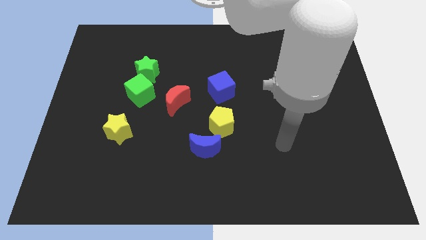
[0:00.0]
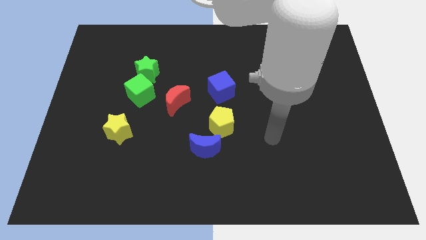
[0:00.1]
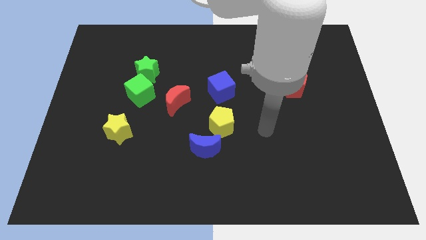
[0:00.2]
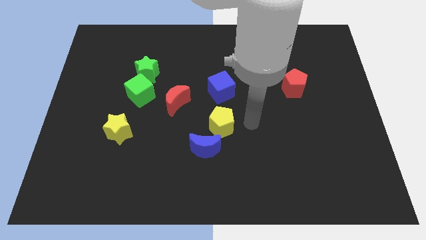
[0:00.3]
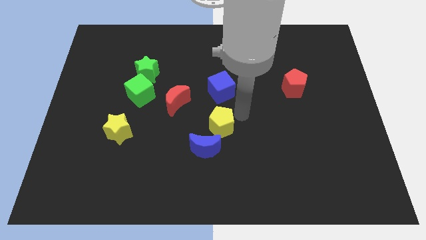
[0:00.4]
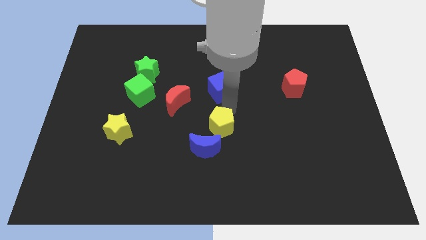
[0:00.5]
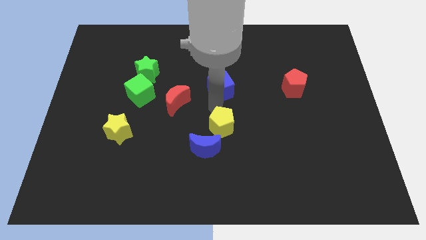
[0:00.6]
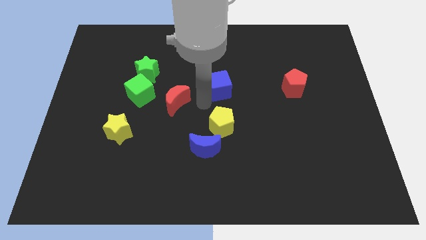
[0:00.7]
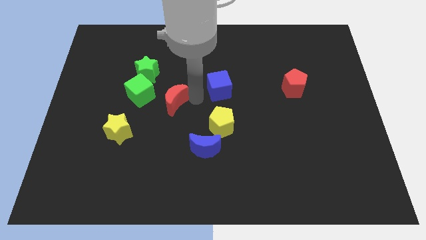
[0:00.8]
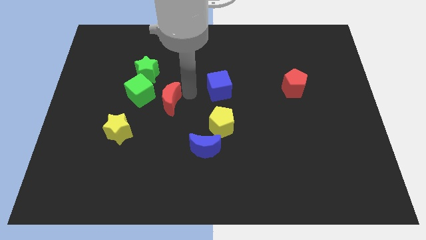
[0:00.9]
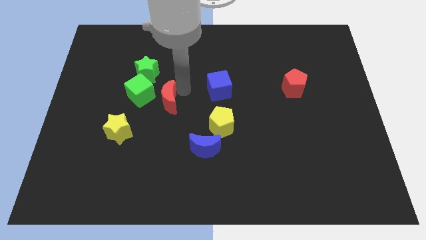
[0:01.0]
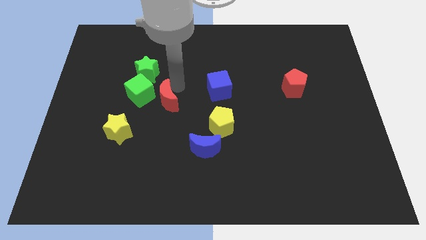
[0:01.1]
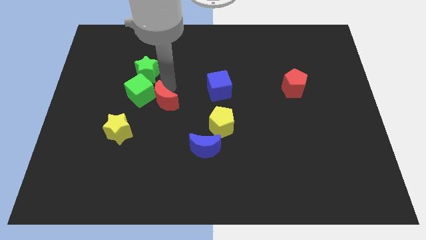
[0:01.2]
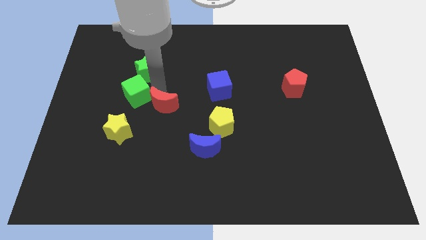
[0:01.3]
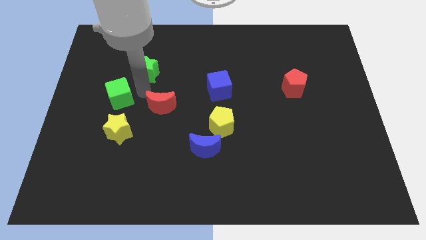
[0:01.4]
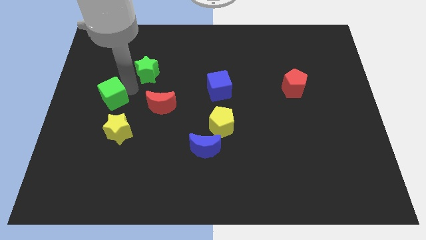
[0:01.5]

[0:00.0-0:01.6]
move the green star away from the green cube

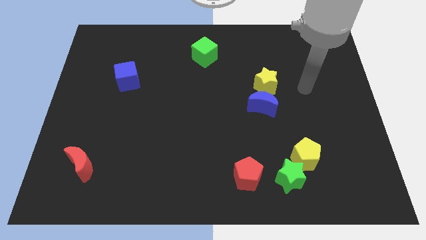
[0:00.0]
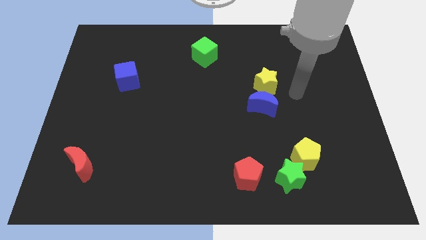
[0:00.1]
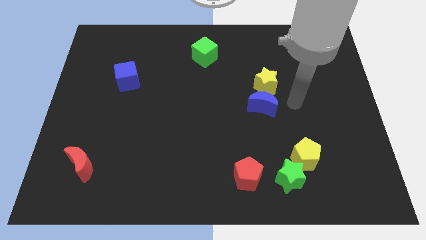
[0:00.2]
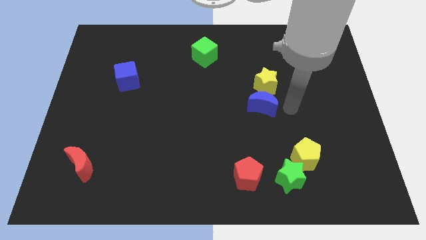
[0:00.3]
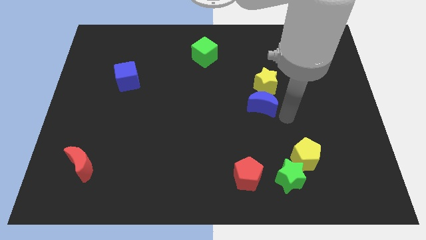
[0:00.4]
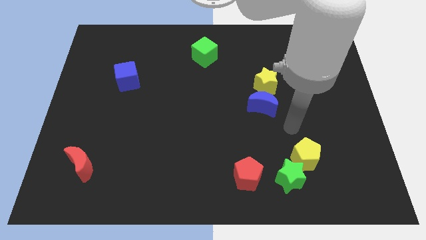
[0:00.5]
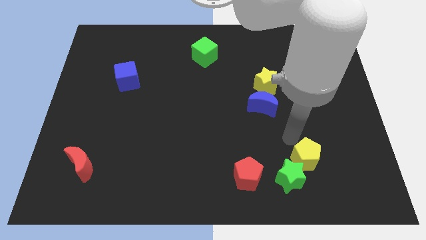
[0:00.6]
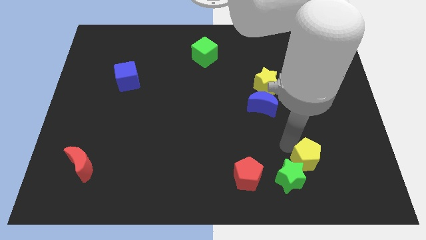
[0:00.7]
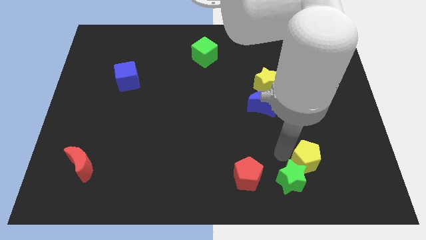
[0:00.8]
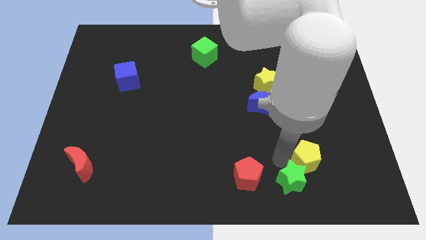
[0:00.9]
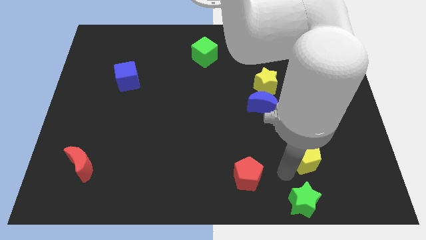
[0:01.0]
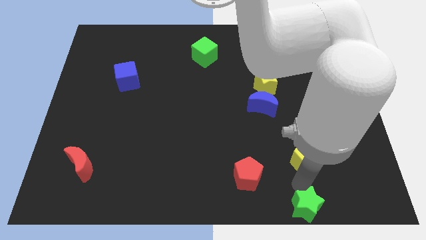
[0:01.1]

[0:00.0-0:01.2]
move the yellow pentagon away from the green star

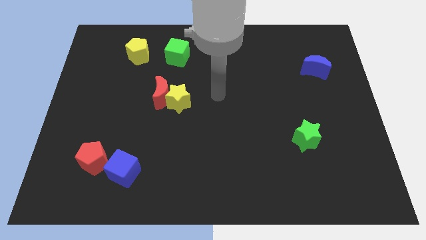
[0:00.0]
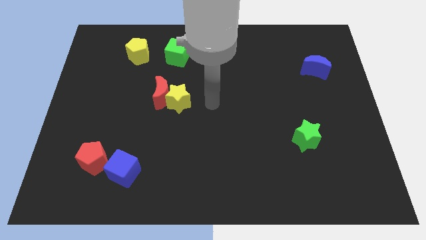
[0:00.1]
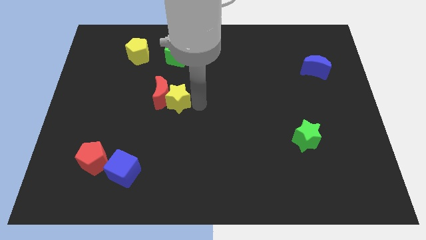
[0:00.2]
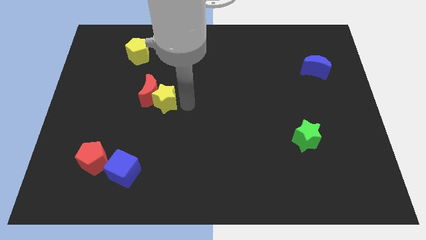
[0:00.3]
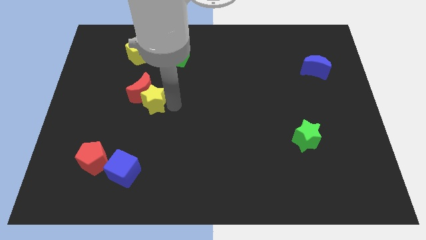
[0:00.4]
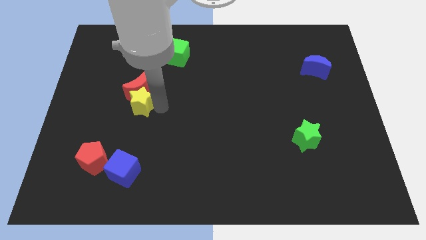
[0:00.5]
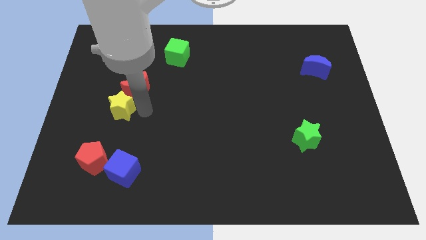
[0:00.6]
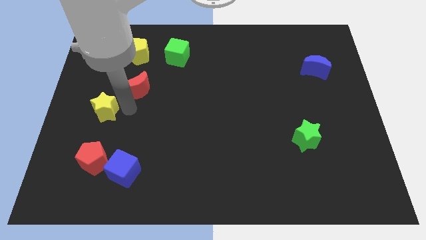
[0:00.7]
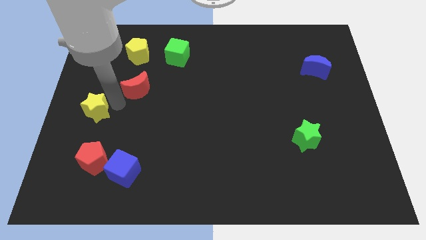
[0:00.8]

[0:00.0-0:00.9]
separate the red moon from the yellow star

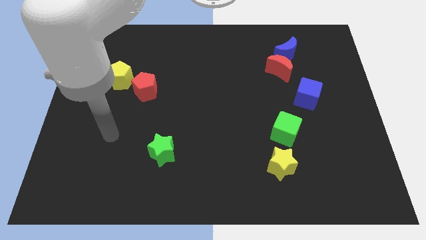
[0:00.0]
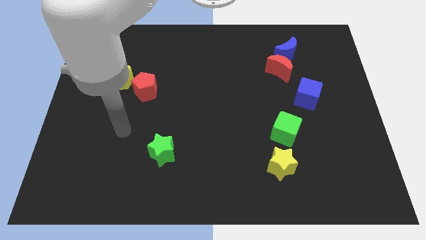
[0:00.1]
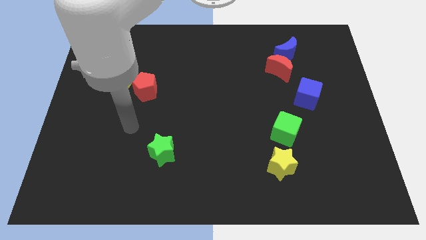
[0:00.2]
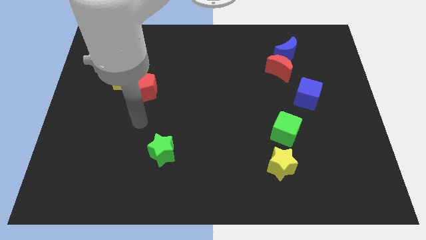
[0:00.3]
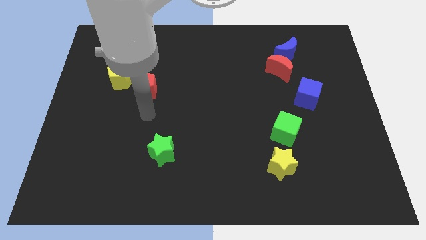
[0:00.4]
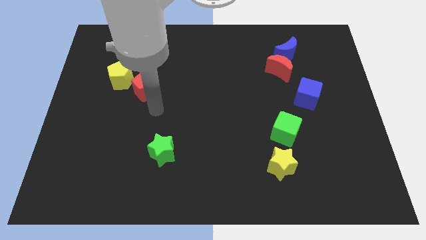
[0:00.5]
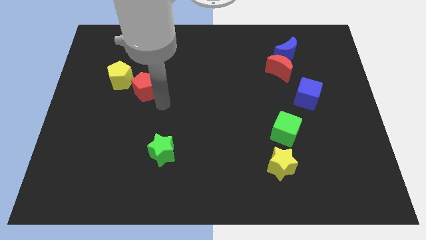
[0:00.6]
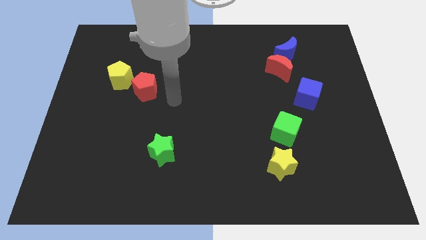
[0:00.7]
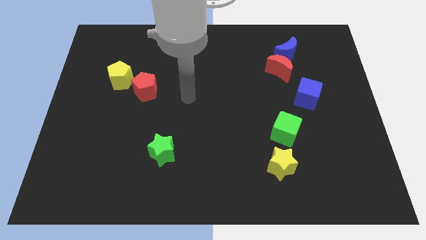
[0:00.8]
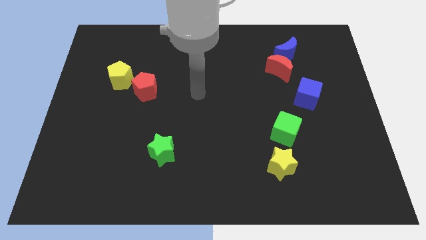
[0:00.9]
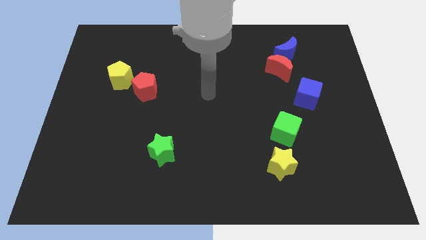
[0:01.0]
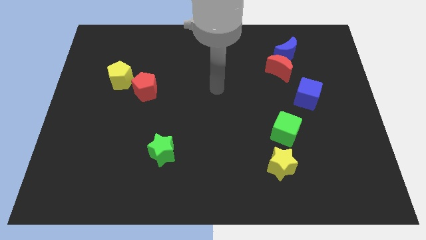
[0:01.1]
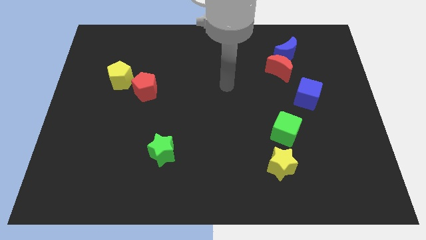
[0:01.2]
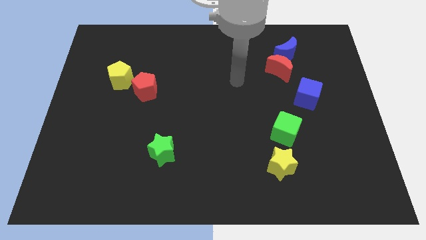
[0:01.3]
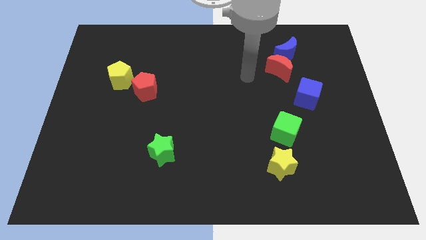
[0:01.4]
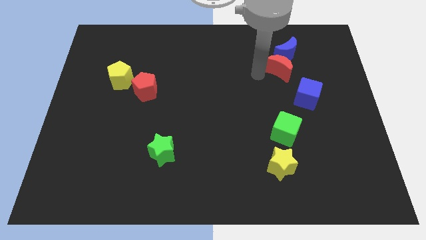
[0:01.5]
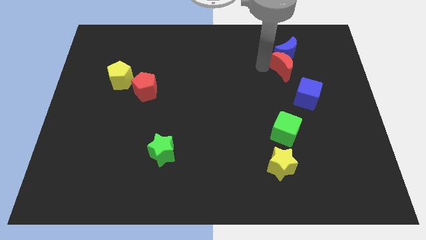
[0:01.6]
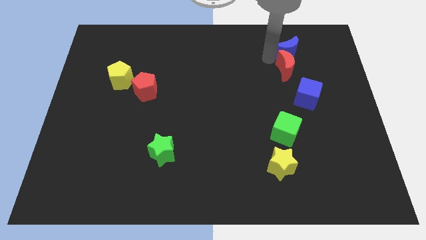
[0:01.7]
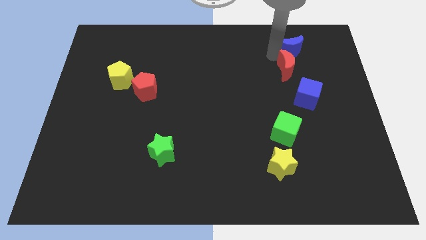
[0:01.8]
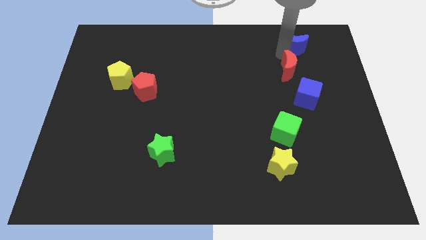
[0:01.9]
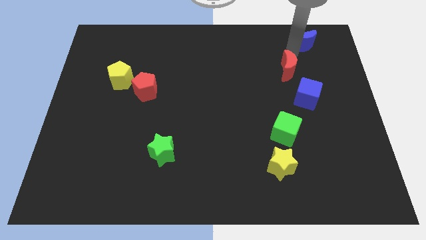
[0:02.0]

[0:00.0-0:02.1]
pull the red moon apart from the blue moon

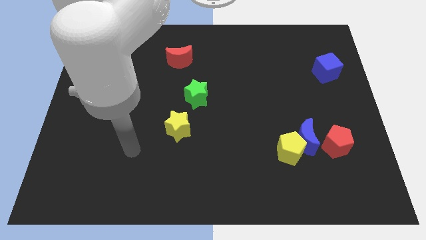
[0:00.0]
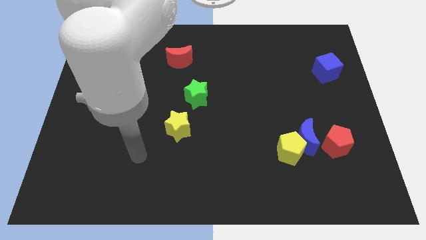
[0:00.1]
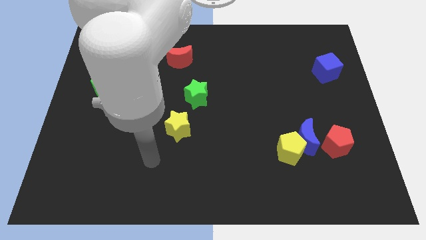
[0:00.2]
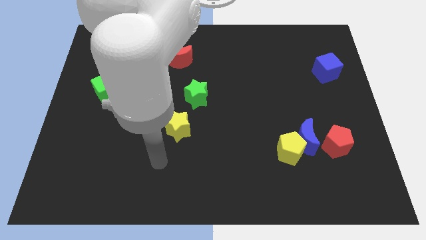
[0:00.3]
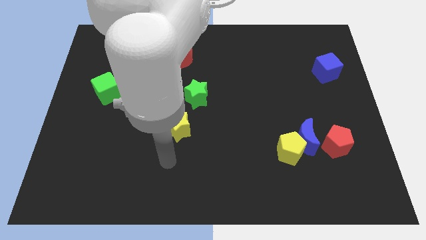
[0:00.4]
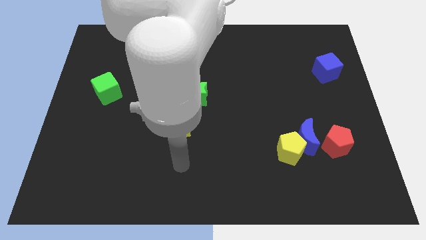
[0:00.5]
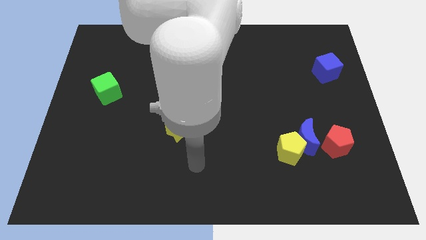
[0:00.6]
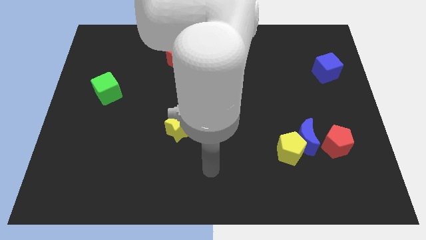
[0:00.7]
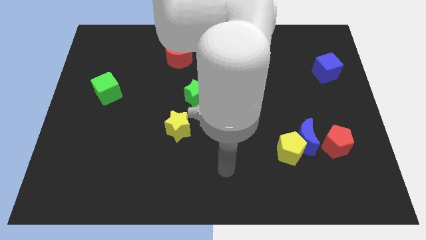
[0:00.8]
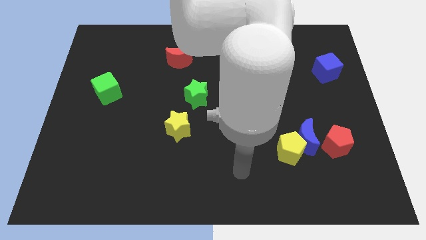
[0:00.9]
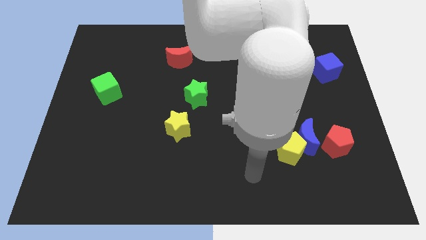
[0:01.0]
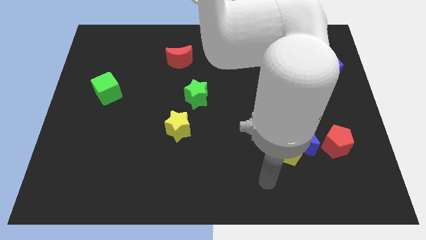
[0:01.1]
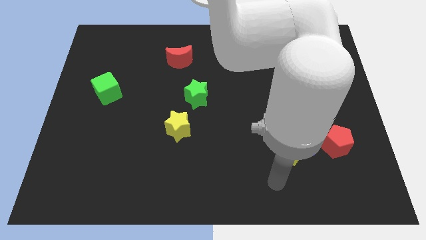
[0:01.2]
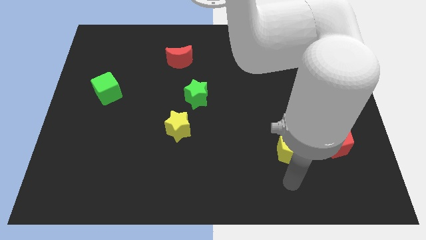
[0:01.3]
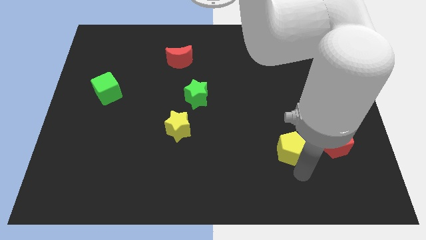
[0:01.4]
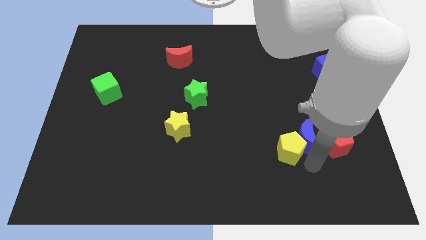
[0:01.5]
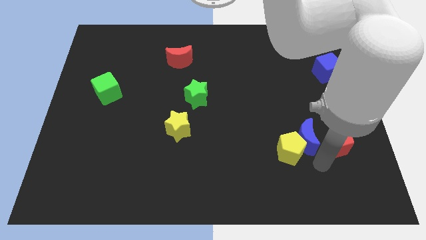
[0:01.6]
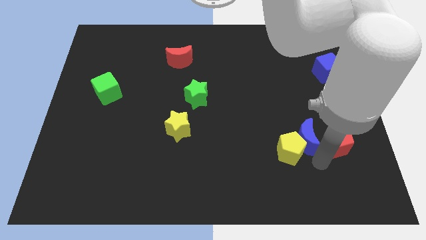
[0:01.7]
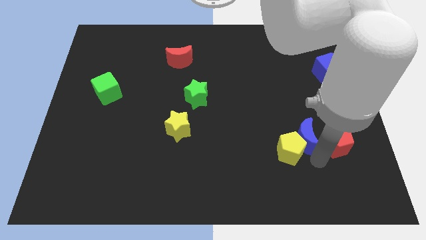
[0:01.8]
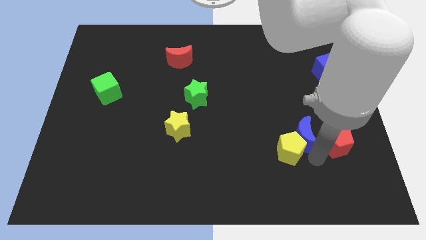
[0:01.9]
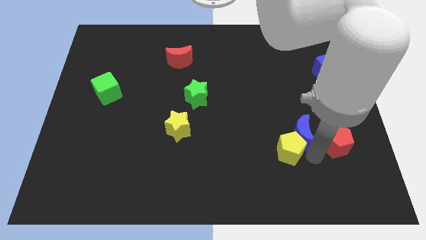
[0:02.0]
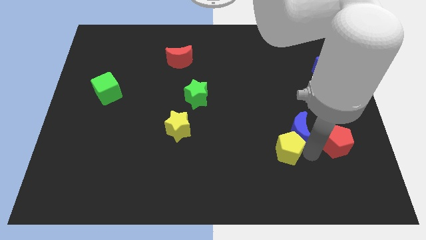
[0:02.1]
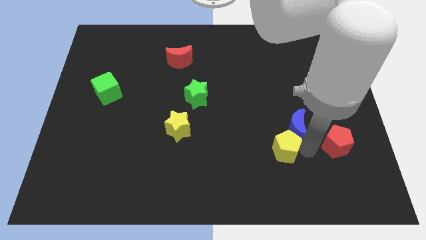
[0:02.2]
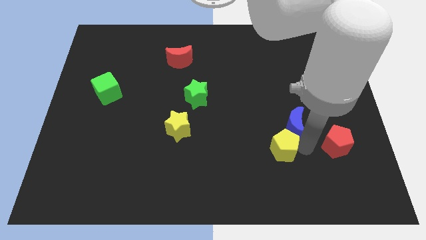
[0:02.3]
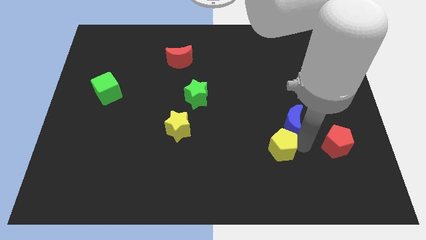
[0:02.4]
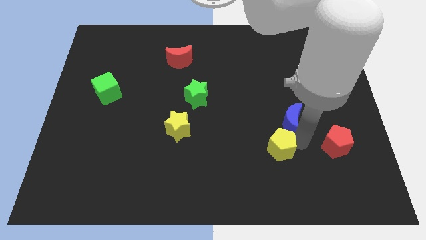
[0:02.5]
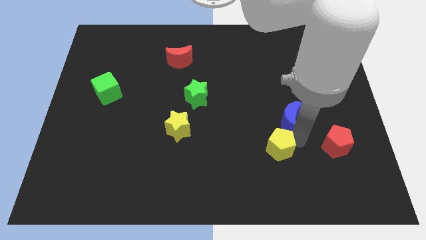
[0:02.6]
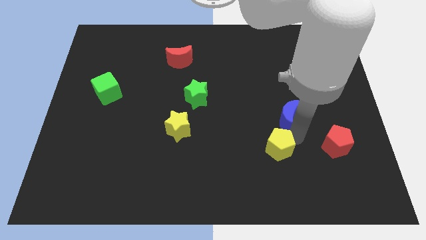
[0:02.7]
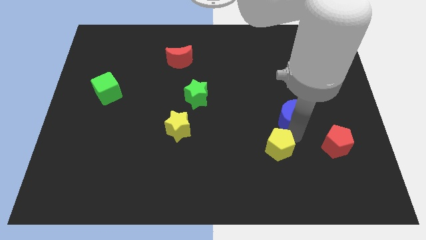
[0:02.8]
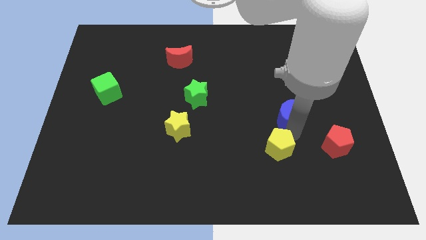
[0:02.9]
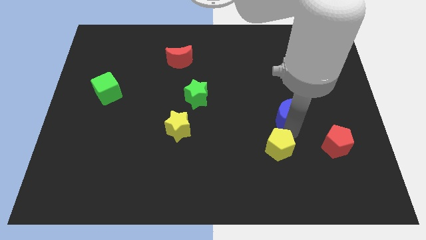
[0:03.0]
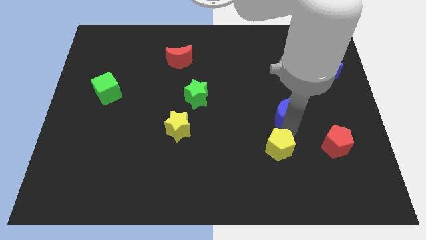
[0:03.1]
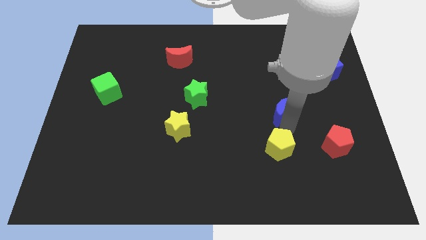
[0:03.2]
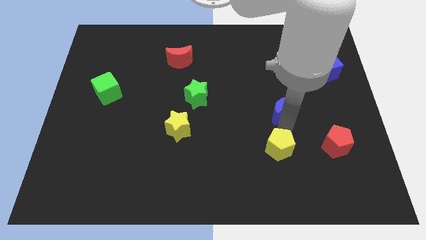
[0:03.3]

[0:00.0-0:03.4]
separate the blue moon from the yellow pentagon and red pentagon
